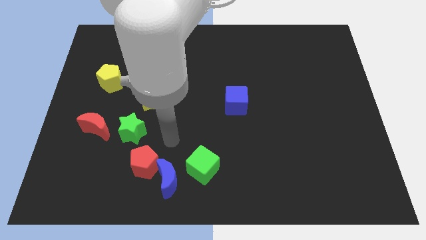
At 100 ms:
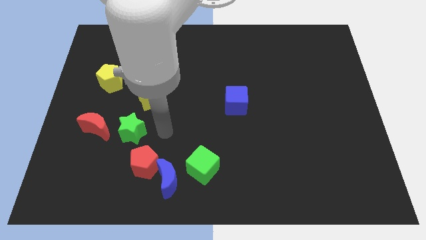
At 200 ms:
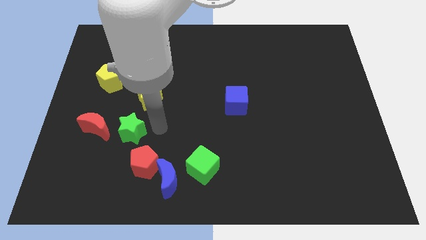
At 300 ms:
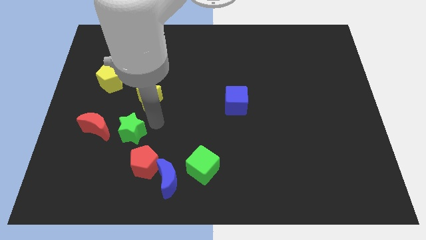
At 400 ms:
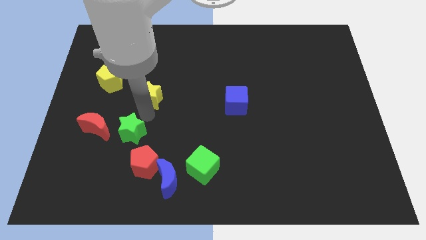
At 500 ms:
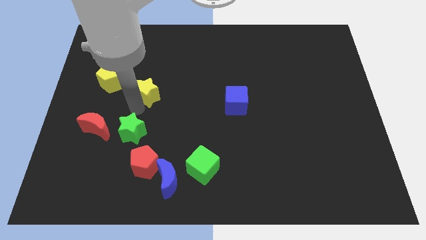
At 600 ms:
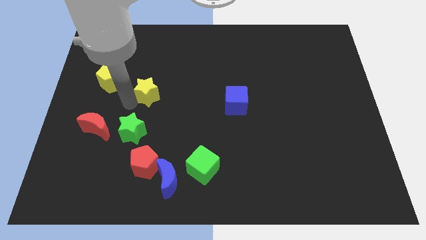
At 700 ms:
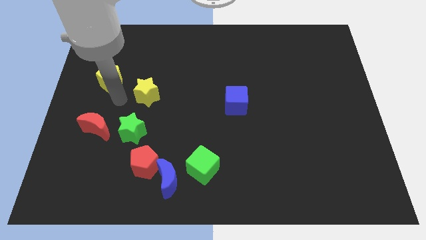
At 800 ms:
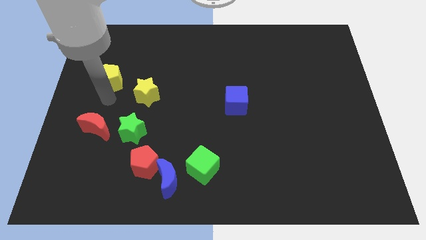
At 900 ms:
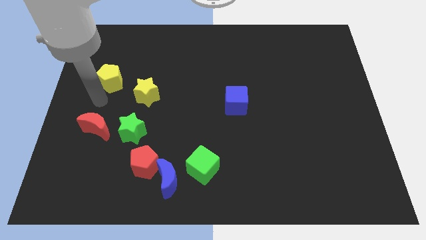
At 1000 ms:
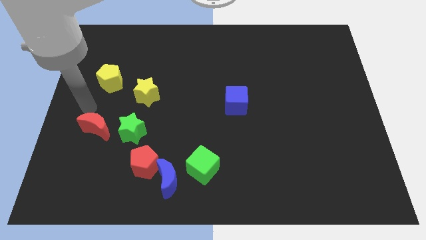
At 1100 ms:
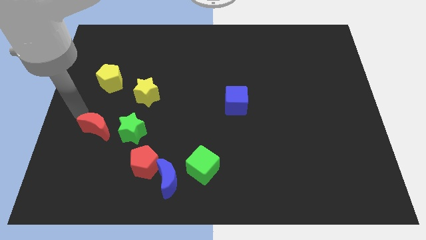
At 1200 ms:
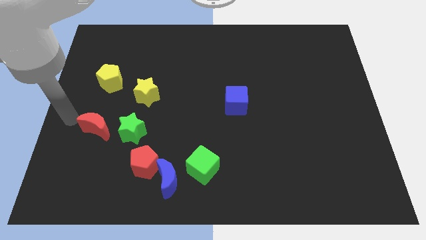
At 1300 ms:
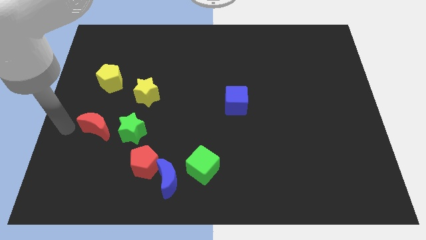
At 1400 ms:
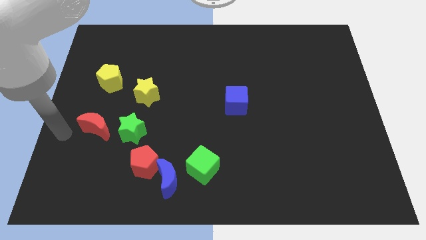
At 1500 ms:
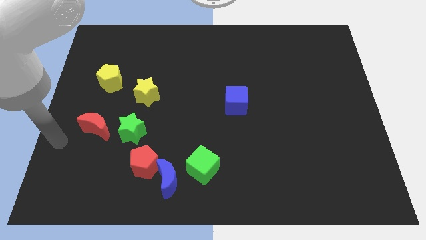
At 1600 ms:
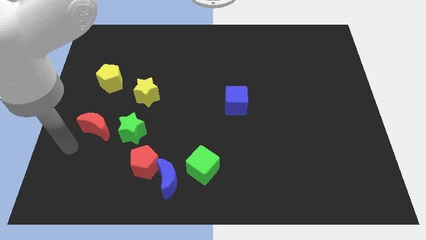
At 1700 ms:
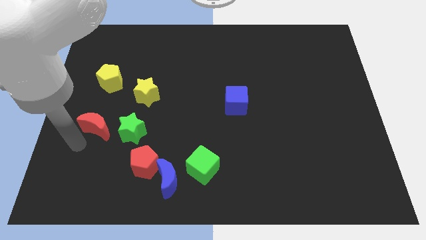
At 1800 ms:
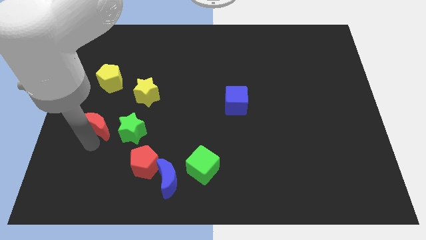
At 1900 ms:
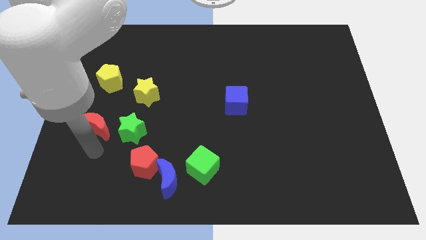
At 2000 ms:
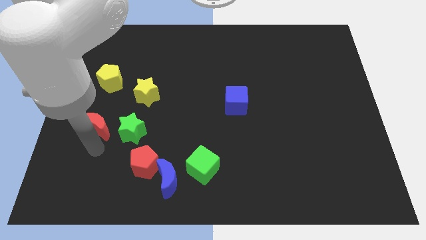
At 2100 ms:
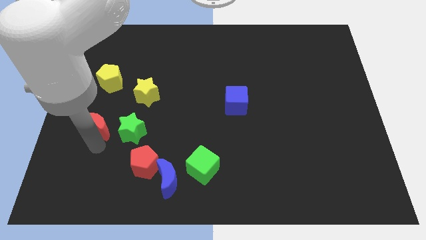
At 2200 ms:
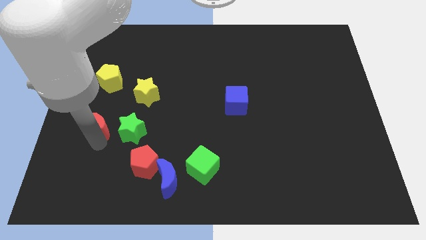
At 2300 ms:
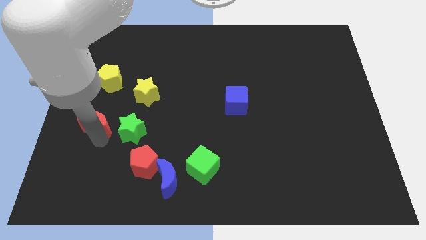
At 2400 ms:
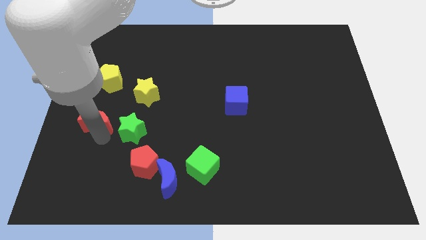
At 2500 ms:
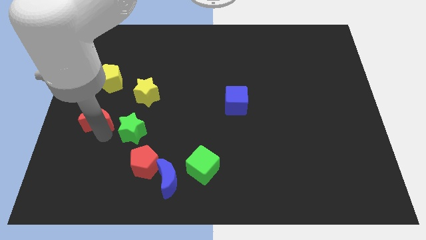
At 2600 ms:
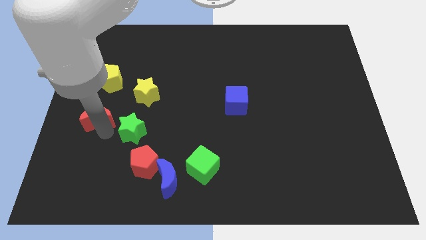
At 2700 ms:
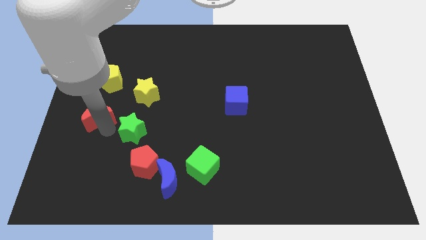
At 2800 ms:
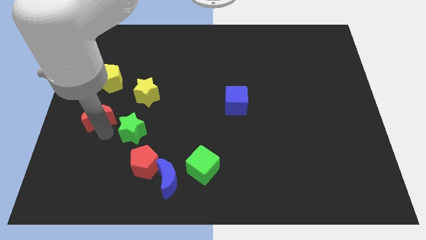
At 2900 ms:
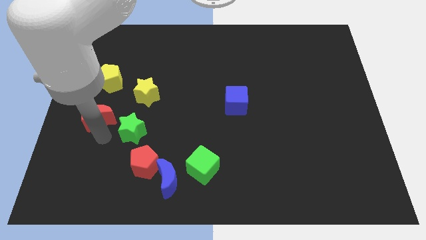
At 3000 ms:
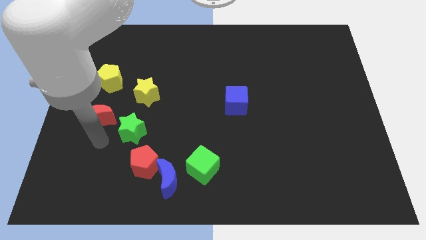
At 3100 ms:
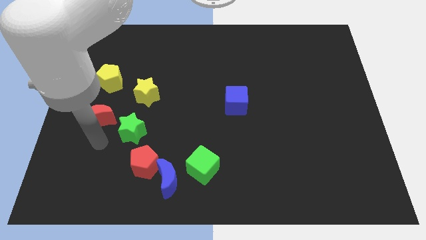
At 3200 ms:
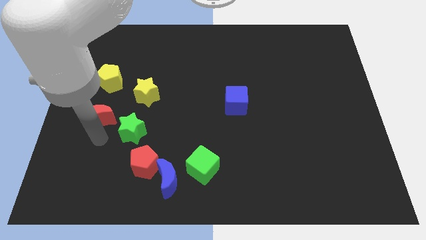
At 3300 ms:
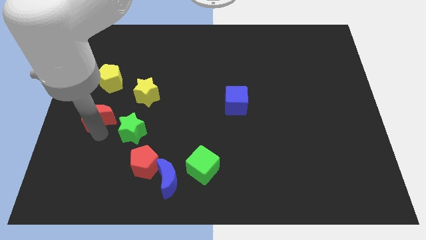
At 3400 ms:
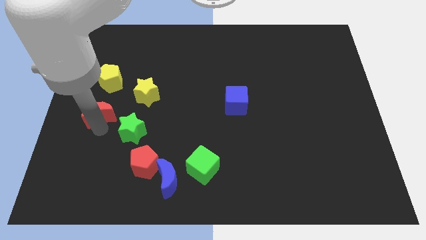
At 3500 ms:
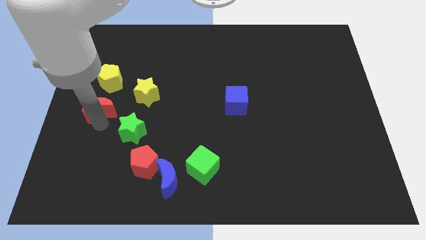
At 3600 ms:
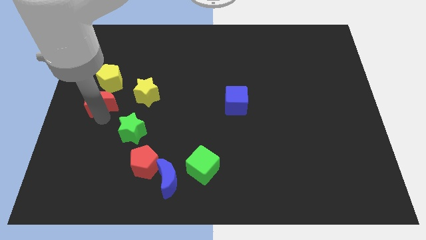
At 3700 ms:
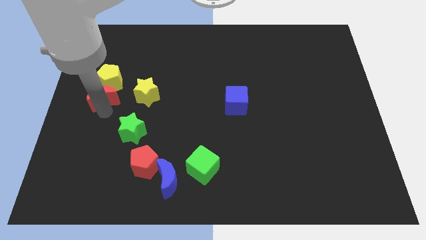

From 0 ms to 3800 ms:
move the red moon upwards a bit

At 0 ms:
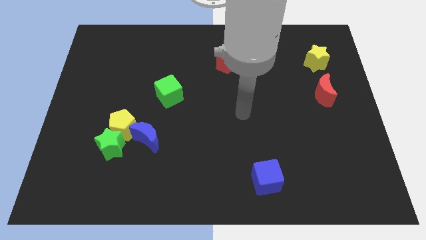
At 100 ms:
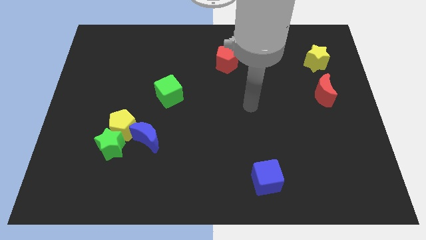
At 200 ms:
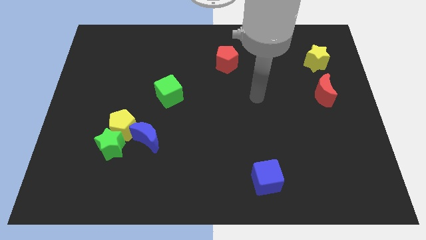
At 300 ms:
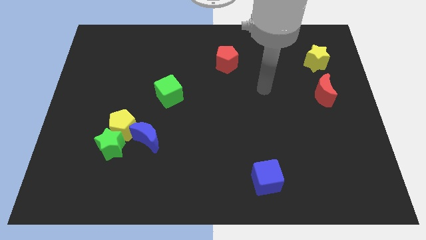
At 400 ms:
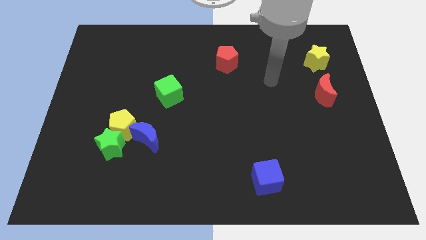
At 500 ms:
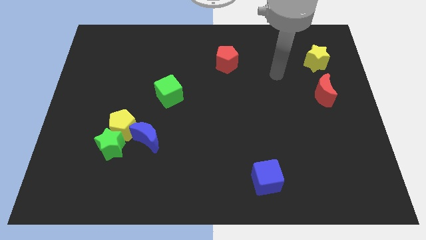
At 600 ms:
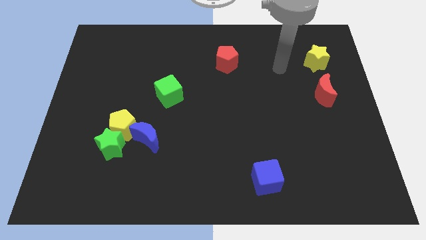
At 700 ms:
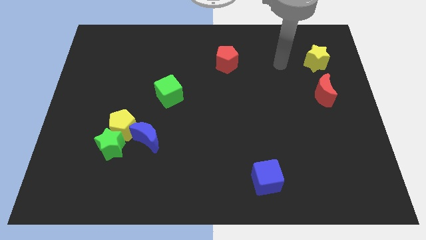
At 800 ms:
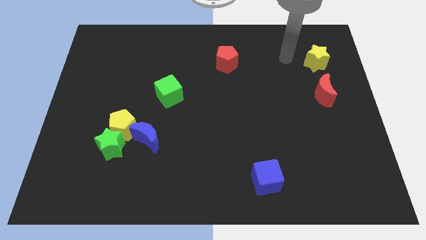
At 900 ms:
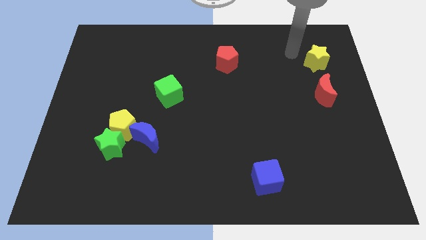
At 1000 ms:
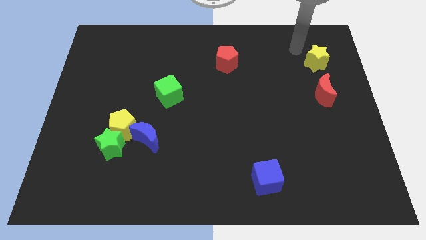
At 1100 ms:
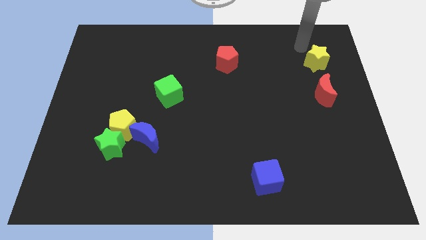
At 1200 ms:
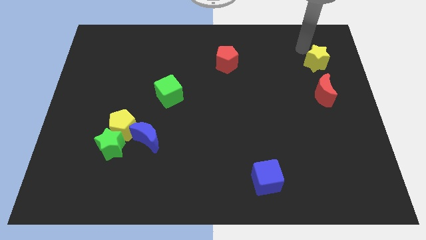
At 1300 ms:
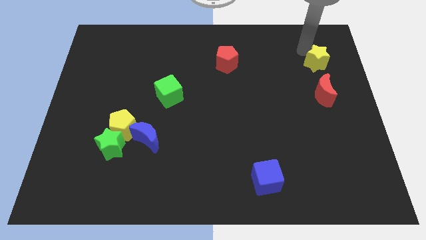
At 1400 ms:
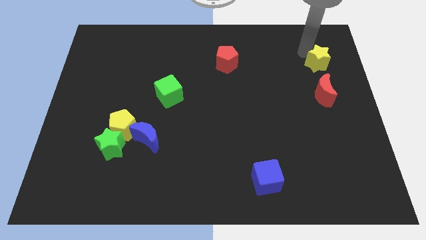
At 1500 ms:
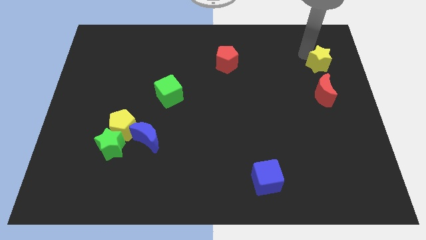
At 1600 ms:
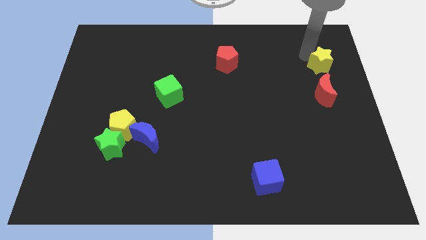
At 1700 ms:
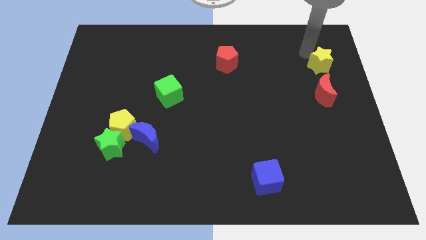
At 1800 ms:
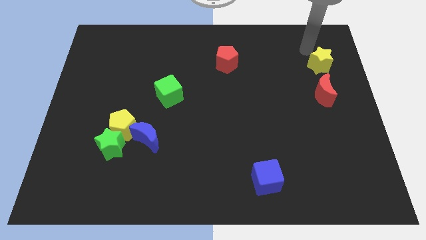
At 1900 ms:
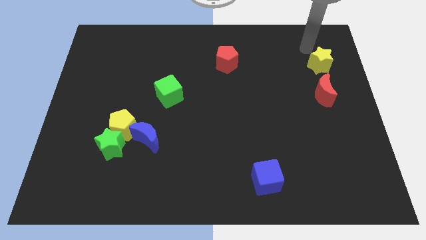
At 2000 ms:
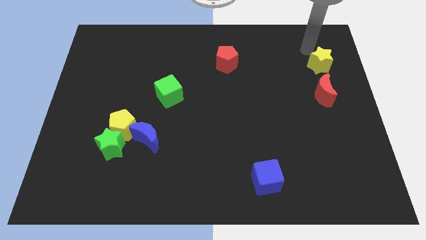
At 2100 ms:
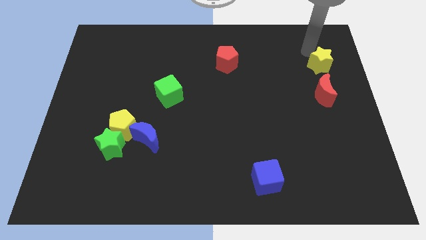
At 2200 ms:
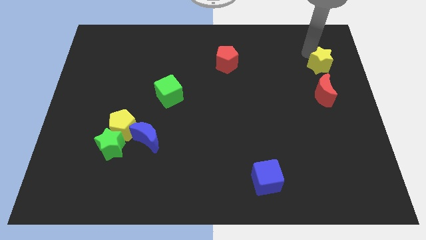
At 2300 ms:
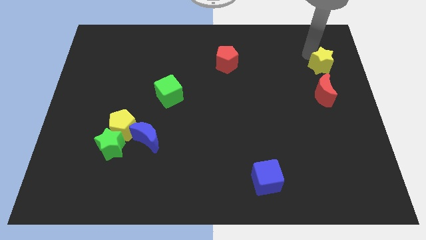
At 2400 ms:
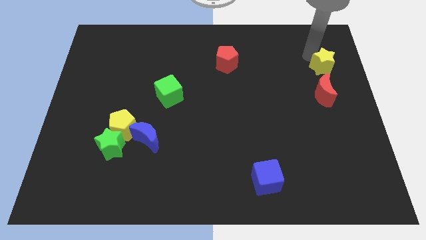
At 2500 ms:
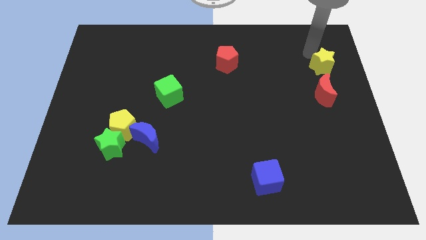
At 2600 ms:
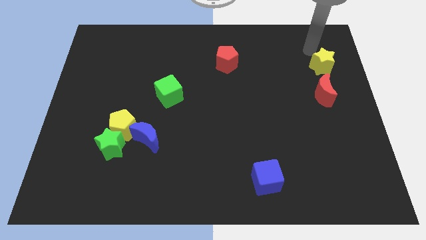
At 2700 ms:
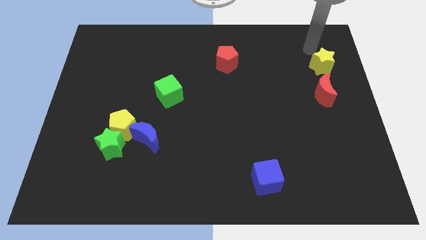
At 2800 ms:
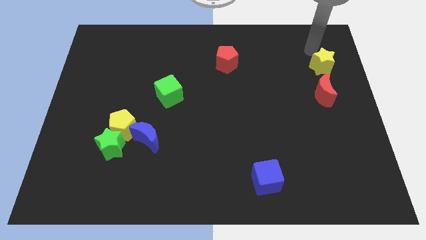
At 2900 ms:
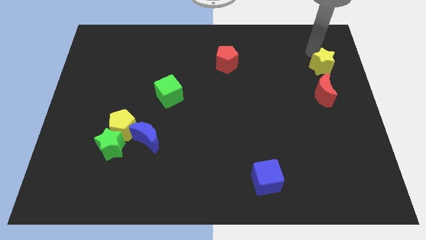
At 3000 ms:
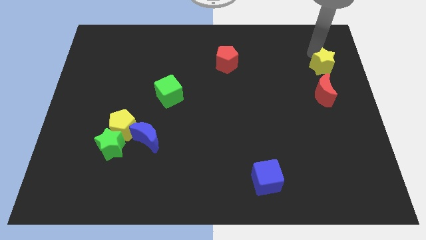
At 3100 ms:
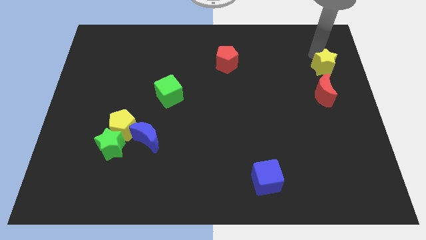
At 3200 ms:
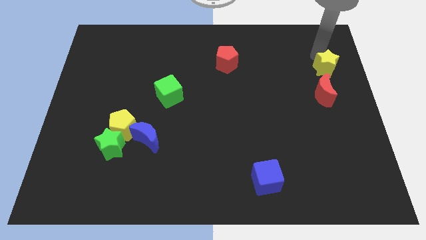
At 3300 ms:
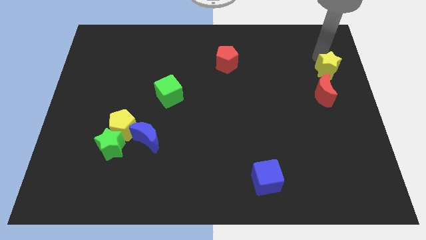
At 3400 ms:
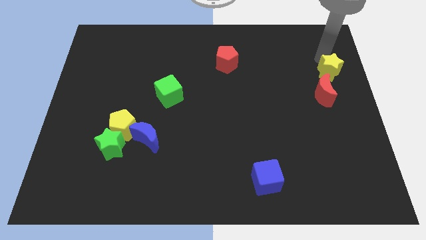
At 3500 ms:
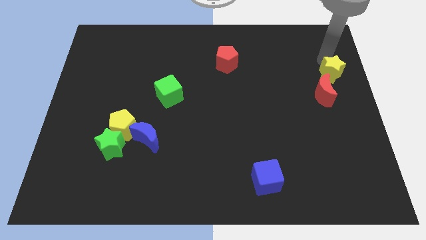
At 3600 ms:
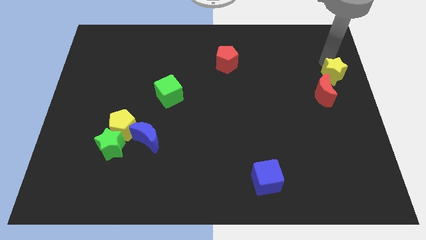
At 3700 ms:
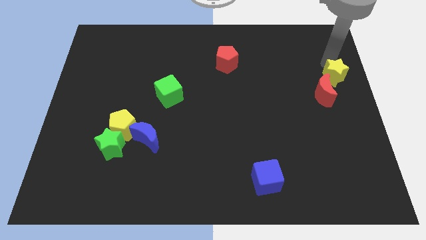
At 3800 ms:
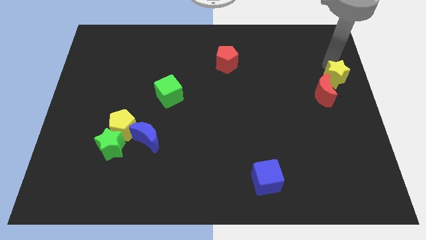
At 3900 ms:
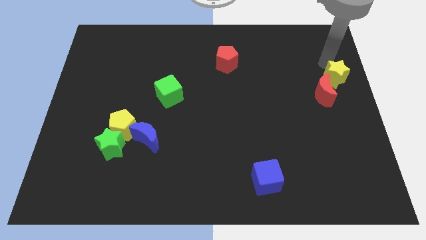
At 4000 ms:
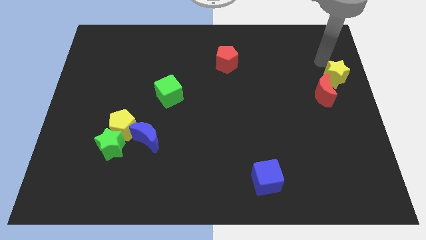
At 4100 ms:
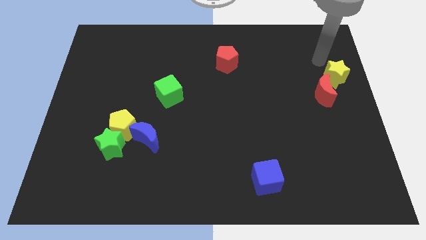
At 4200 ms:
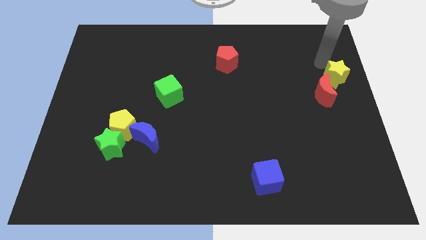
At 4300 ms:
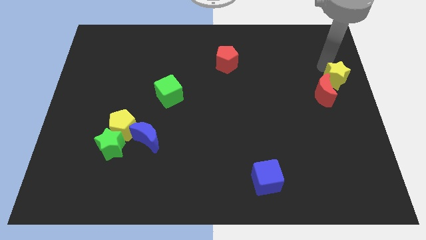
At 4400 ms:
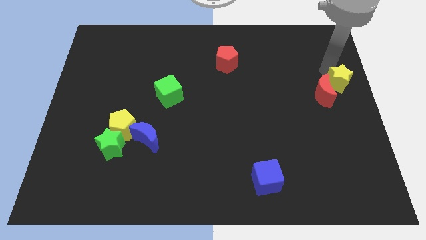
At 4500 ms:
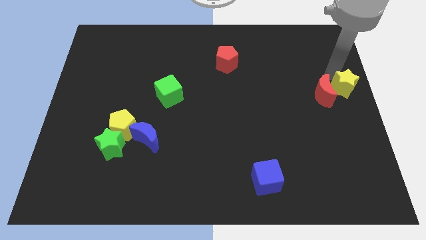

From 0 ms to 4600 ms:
push the yellow star somewhat down
